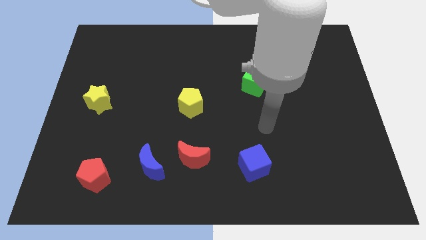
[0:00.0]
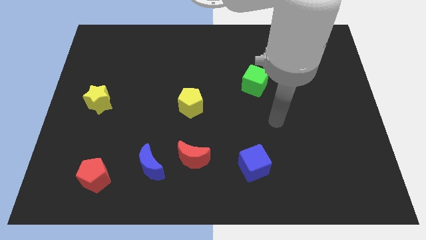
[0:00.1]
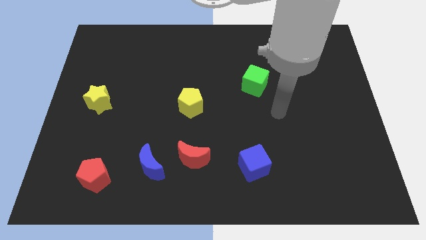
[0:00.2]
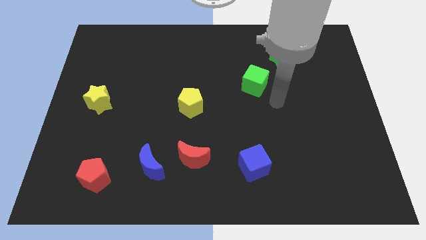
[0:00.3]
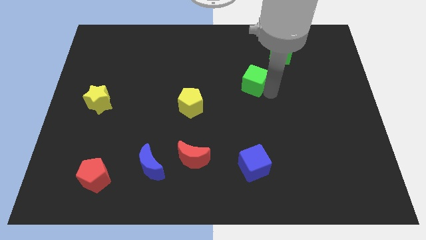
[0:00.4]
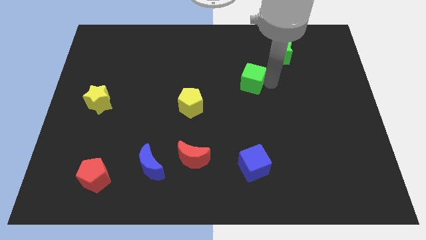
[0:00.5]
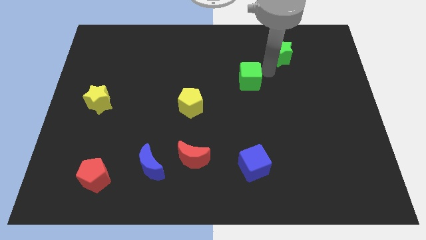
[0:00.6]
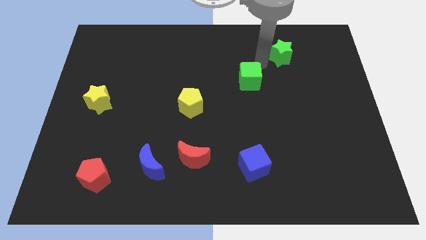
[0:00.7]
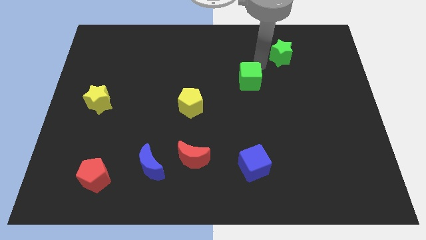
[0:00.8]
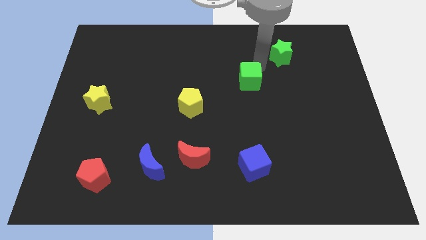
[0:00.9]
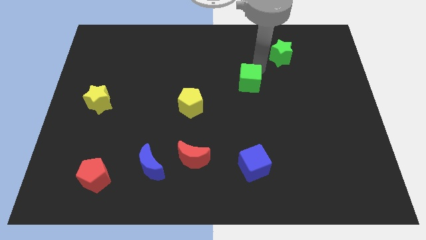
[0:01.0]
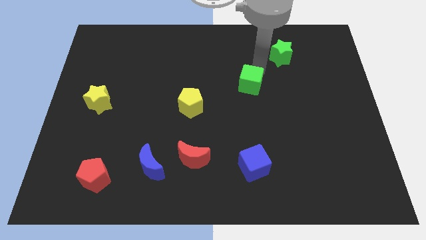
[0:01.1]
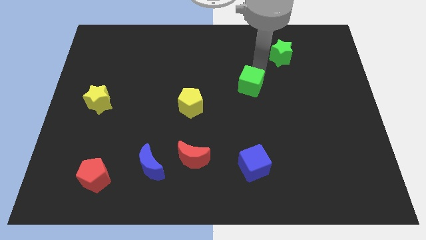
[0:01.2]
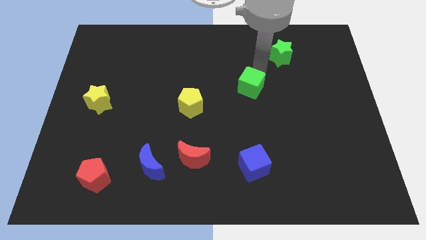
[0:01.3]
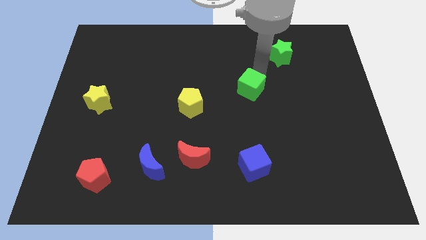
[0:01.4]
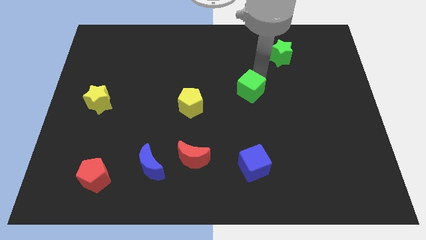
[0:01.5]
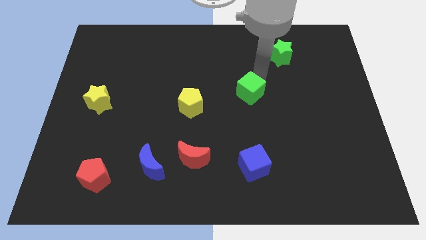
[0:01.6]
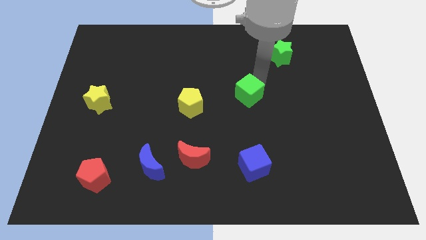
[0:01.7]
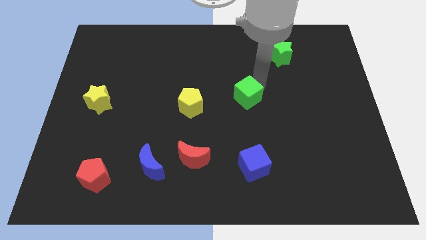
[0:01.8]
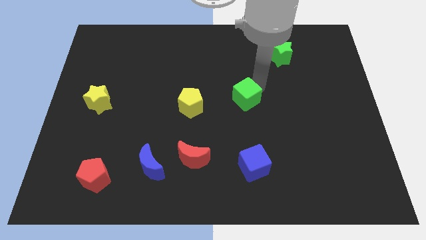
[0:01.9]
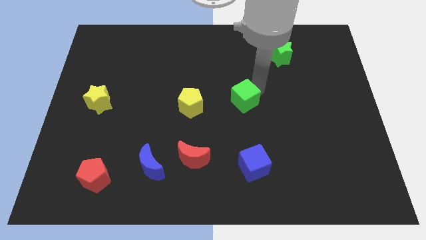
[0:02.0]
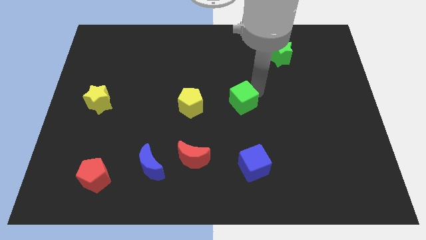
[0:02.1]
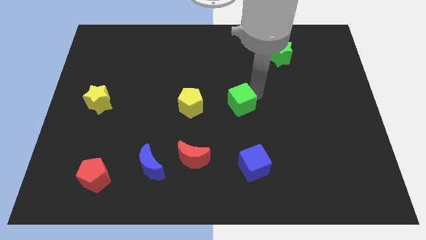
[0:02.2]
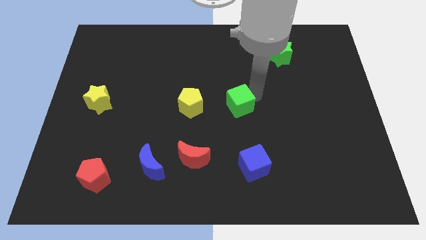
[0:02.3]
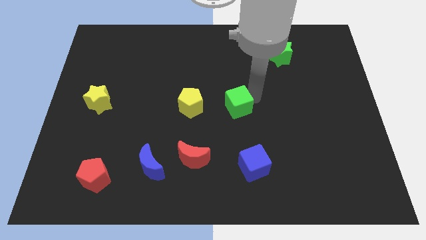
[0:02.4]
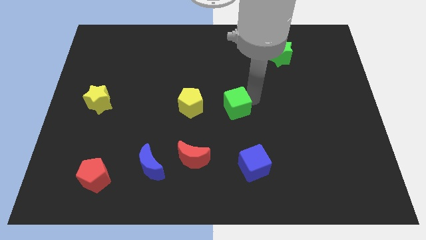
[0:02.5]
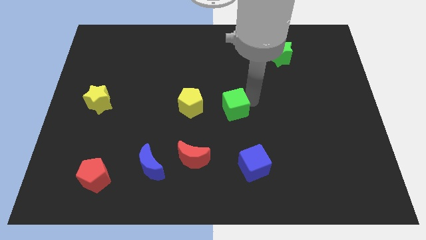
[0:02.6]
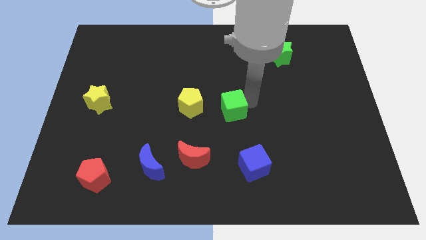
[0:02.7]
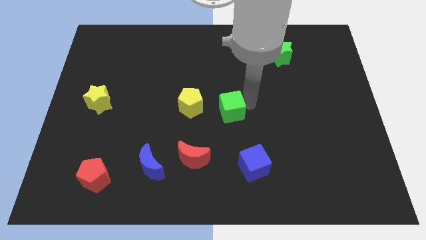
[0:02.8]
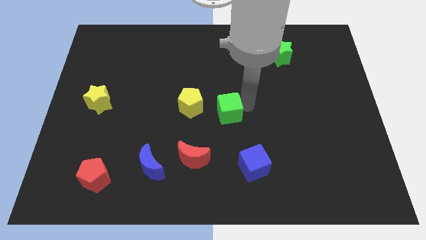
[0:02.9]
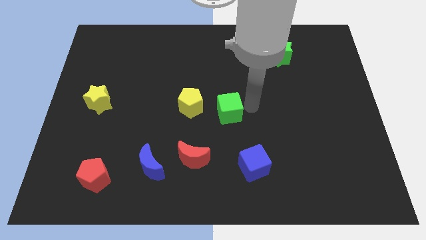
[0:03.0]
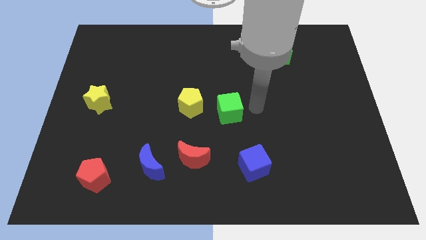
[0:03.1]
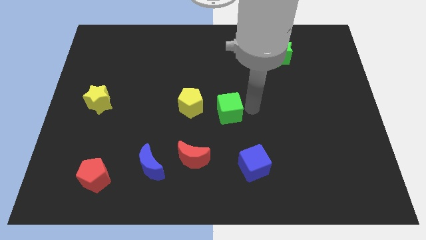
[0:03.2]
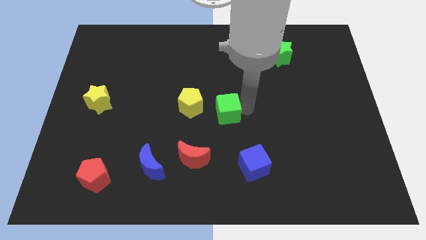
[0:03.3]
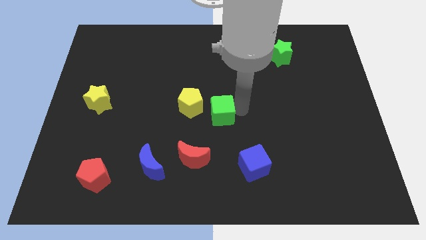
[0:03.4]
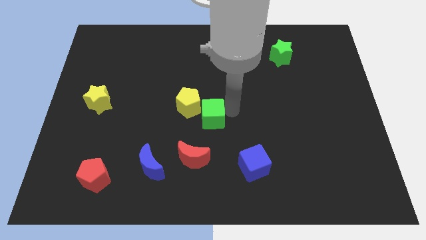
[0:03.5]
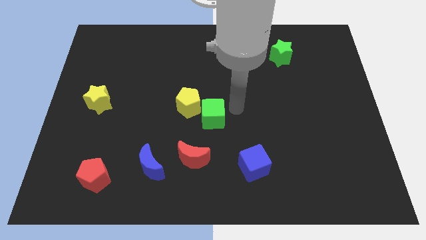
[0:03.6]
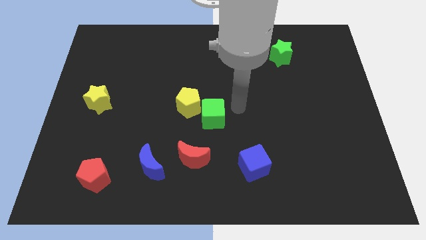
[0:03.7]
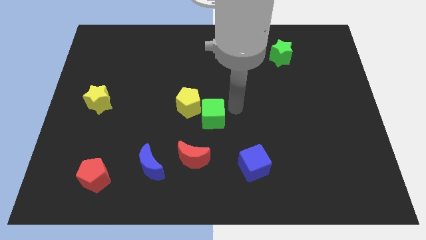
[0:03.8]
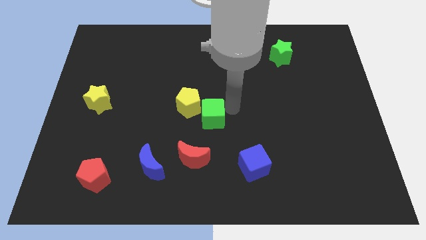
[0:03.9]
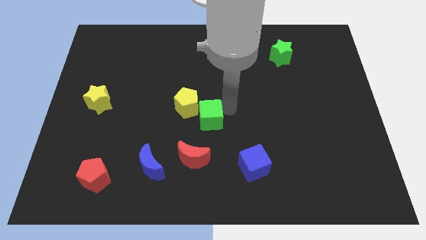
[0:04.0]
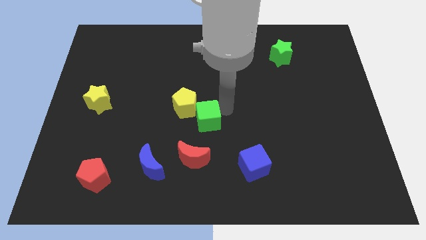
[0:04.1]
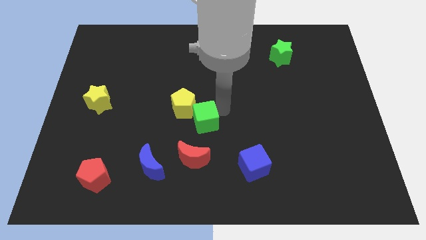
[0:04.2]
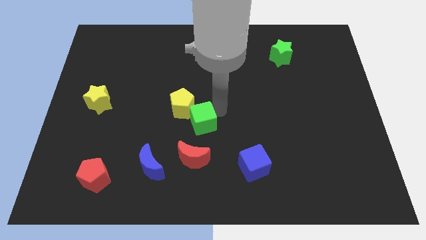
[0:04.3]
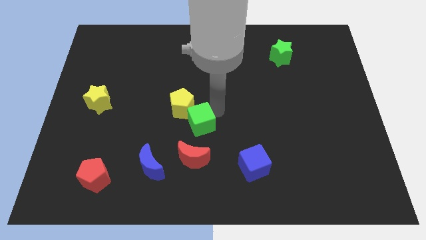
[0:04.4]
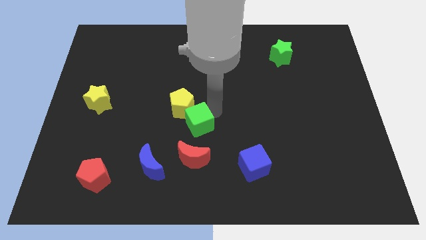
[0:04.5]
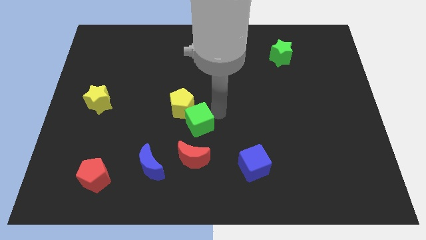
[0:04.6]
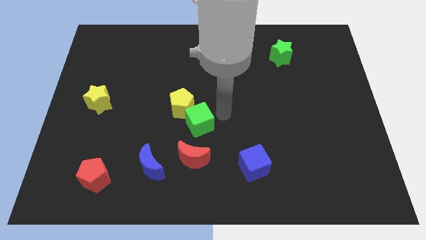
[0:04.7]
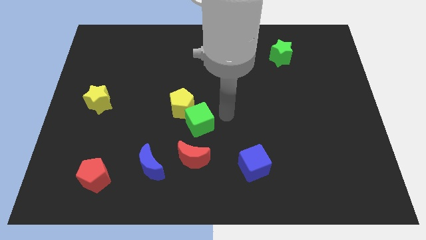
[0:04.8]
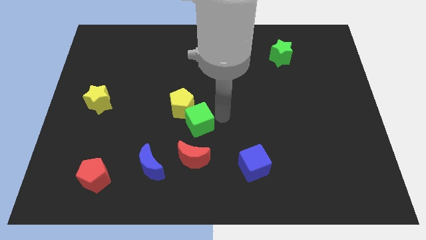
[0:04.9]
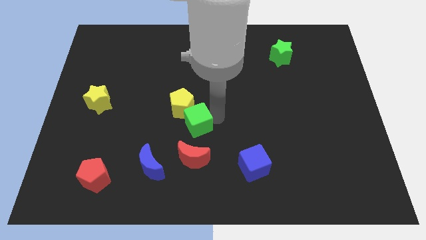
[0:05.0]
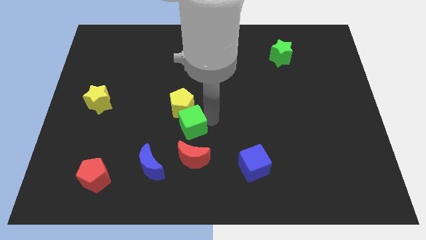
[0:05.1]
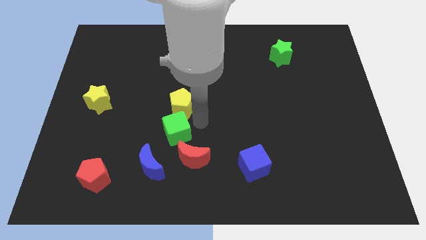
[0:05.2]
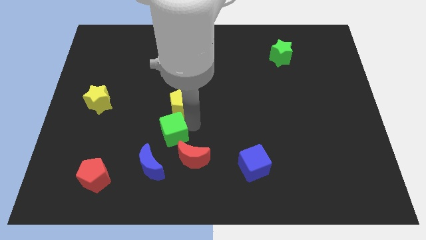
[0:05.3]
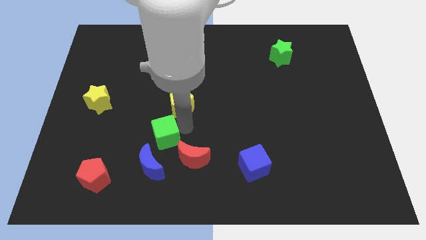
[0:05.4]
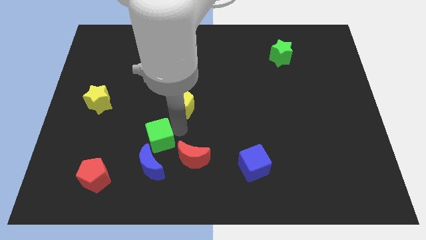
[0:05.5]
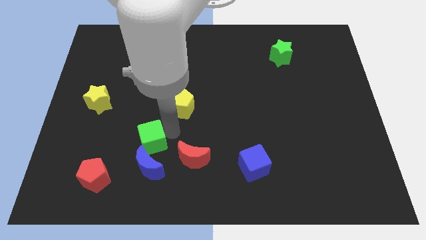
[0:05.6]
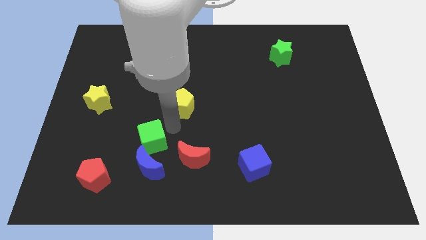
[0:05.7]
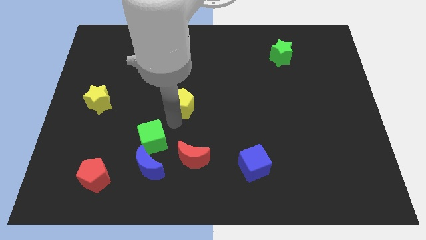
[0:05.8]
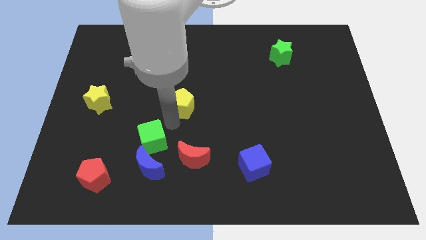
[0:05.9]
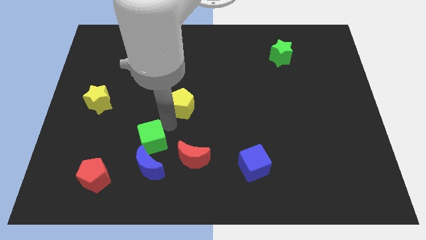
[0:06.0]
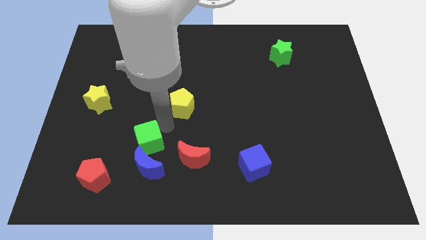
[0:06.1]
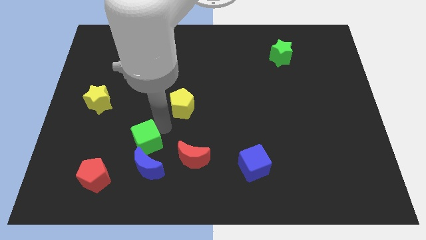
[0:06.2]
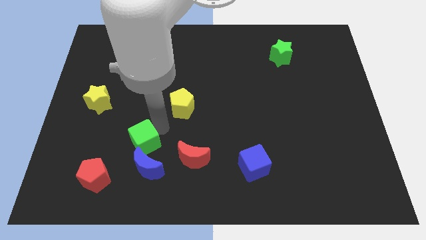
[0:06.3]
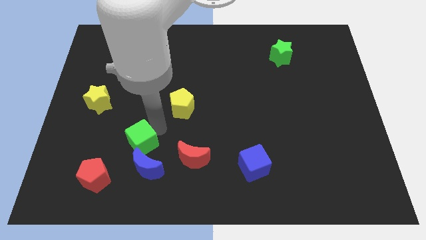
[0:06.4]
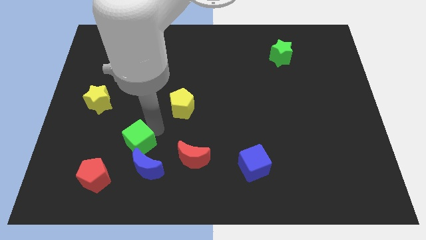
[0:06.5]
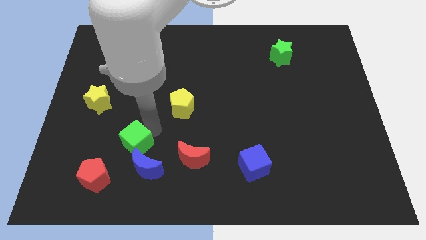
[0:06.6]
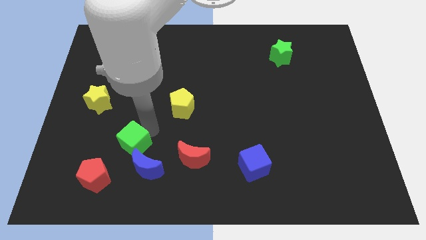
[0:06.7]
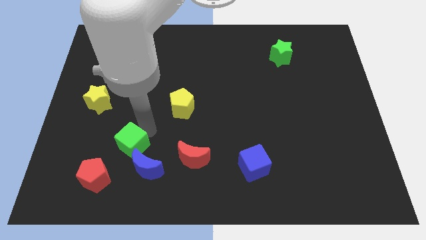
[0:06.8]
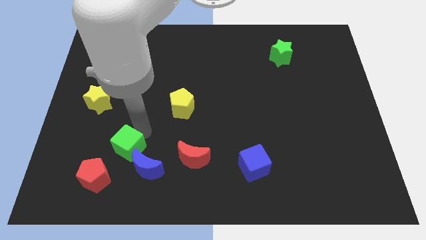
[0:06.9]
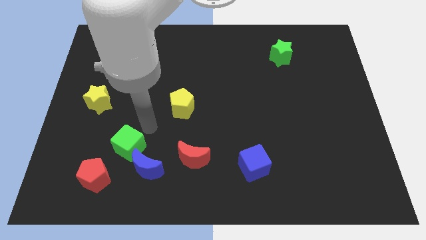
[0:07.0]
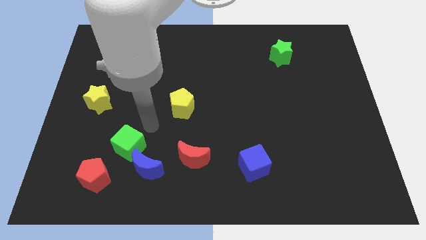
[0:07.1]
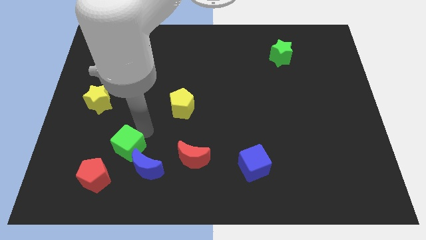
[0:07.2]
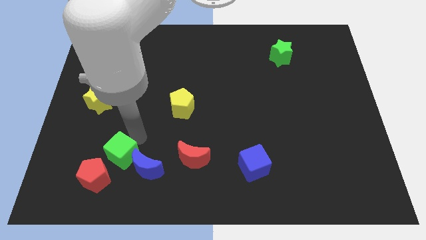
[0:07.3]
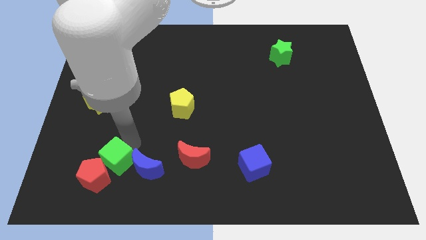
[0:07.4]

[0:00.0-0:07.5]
push the green cube close to the red pentagon
